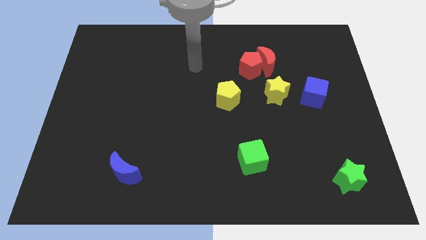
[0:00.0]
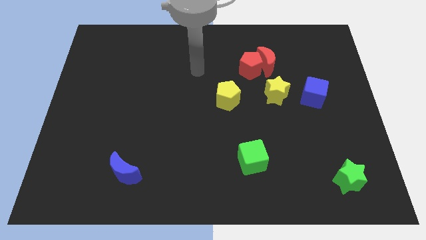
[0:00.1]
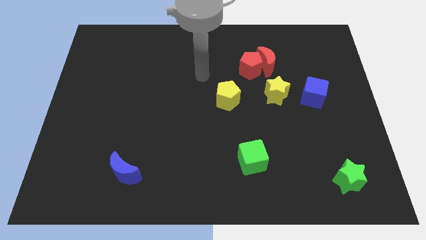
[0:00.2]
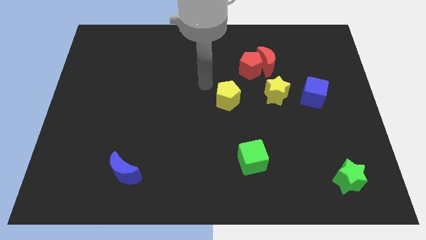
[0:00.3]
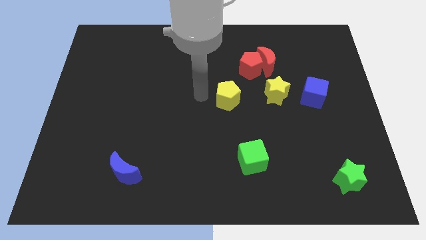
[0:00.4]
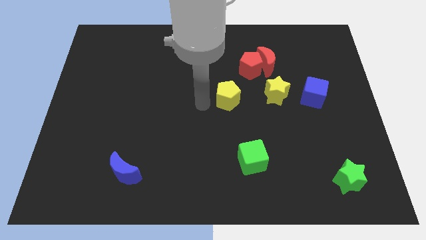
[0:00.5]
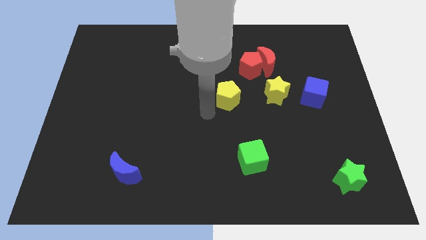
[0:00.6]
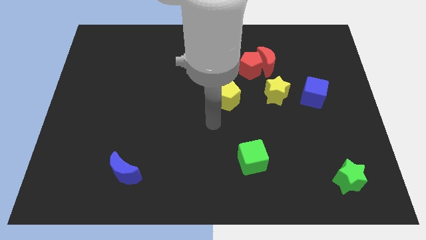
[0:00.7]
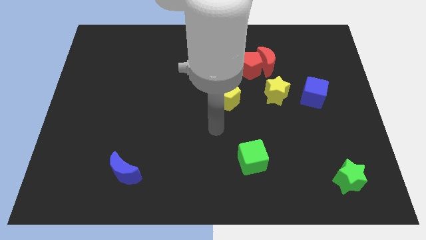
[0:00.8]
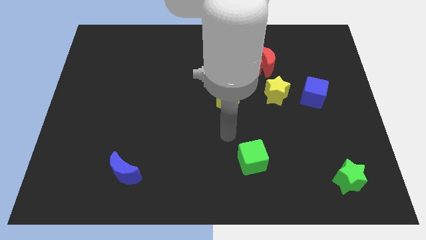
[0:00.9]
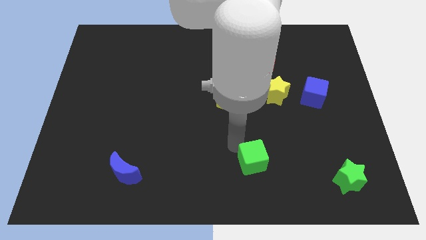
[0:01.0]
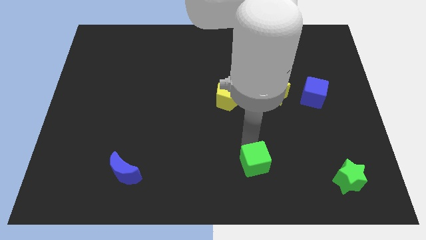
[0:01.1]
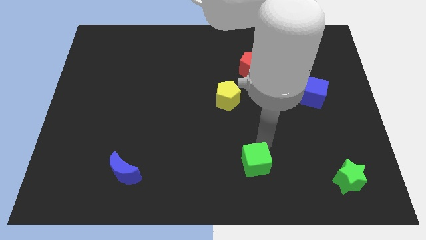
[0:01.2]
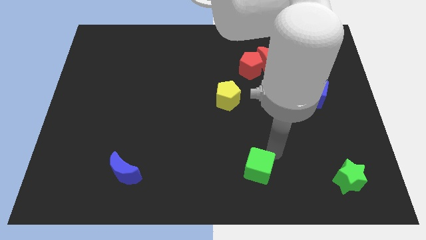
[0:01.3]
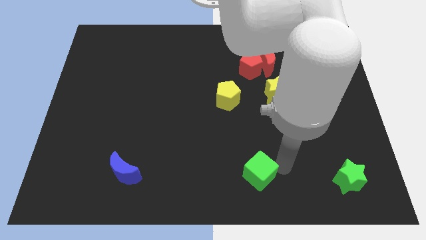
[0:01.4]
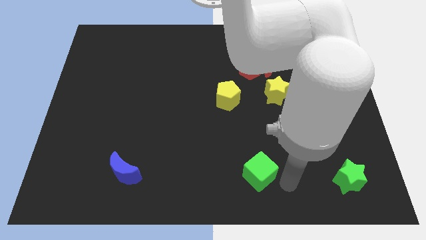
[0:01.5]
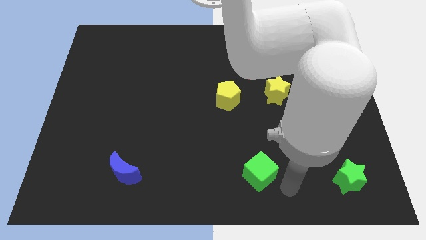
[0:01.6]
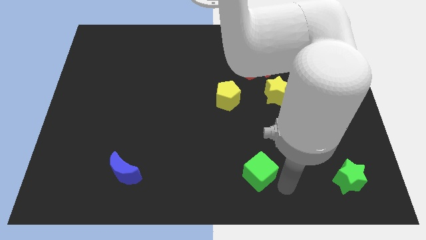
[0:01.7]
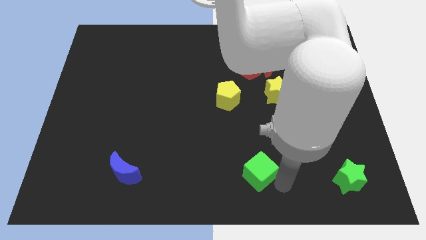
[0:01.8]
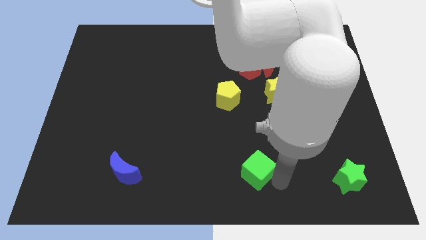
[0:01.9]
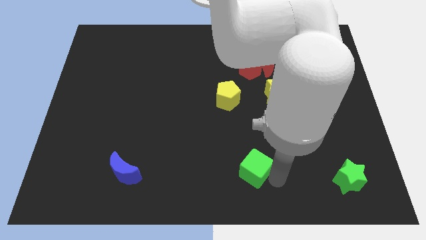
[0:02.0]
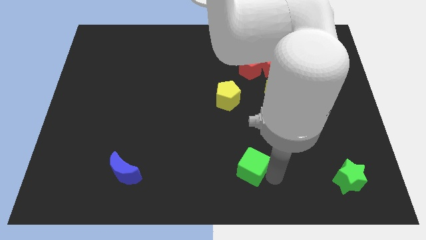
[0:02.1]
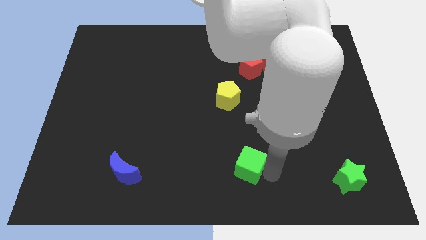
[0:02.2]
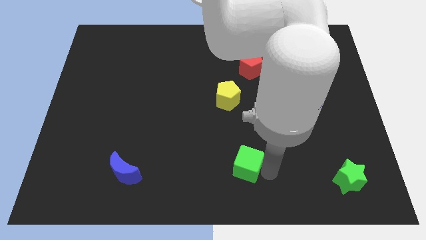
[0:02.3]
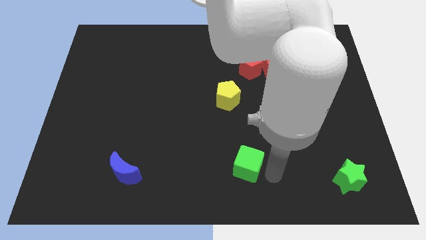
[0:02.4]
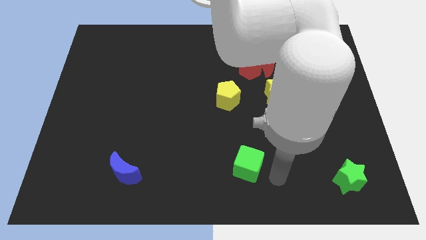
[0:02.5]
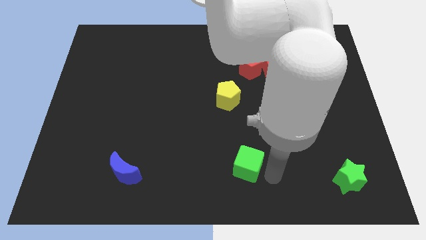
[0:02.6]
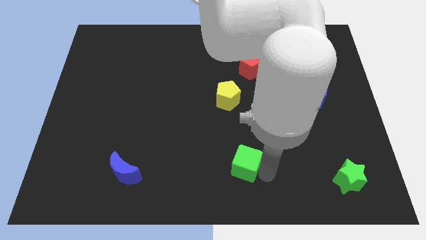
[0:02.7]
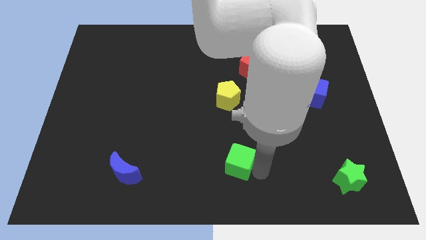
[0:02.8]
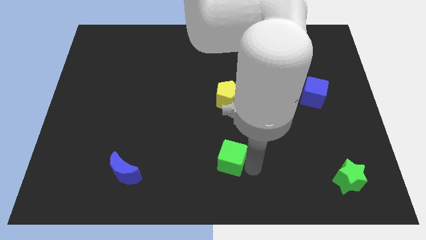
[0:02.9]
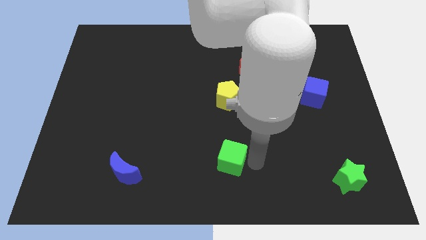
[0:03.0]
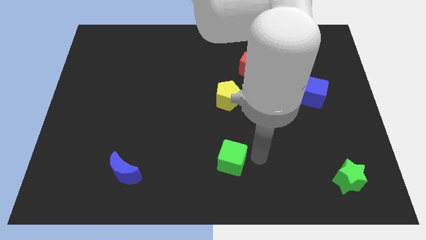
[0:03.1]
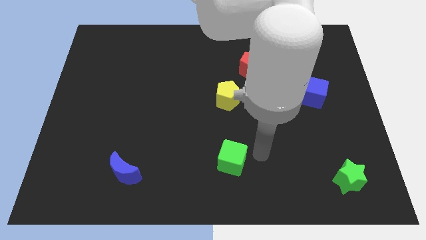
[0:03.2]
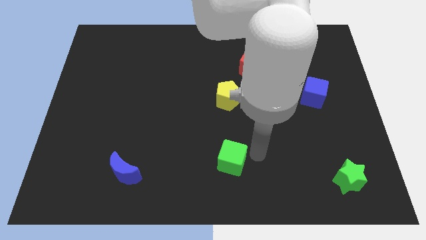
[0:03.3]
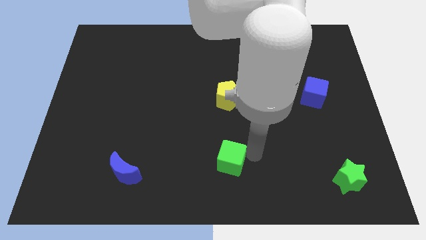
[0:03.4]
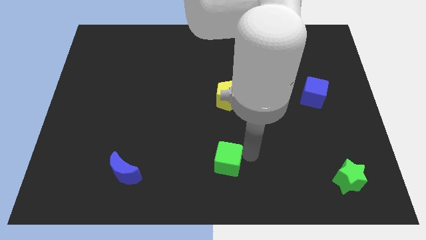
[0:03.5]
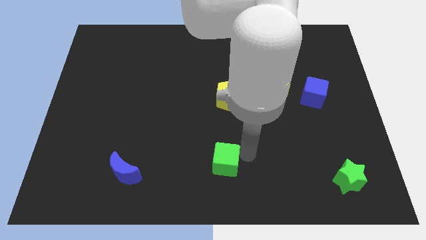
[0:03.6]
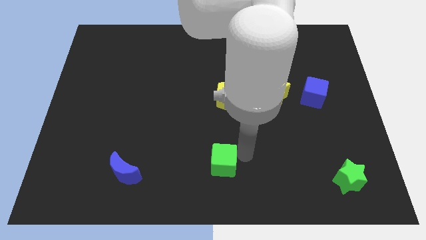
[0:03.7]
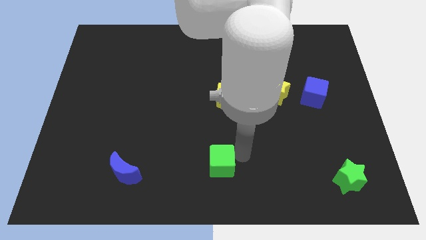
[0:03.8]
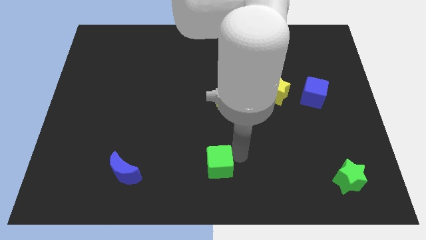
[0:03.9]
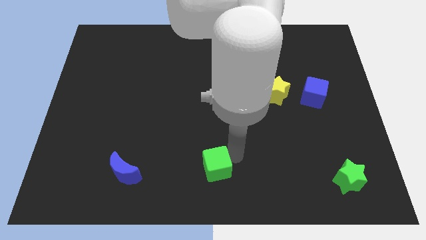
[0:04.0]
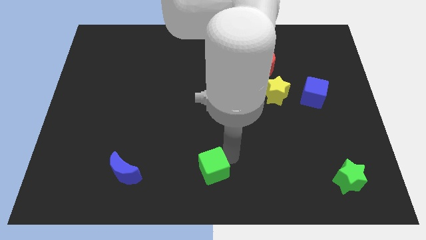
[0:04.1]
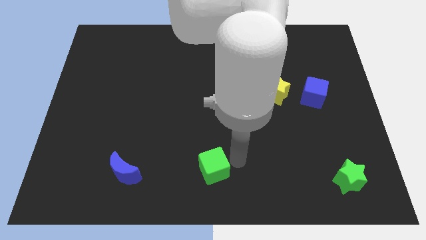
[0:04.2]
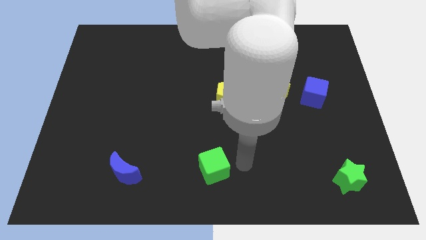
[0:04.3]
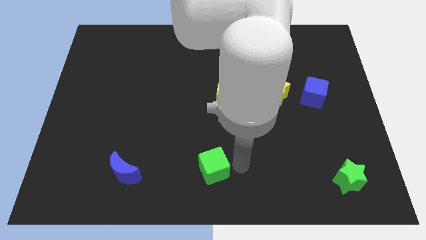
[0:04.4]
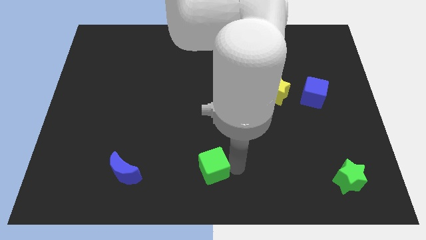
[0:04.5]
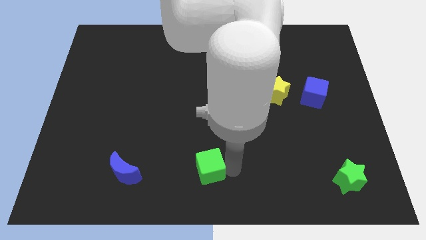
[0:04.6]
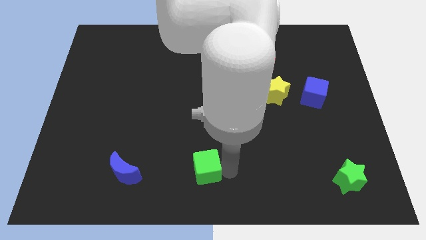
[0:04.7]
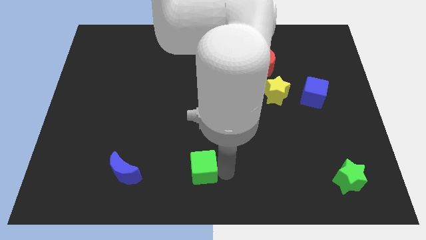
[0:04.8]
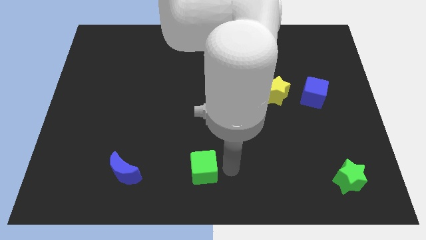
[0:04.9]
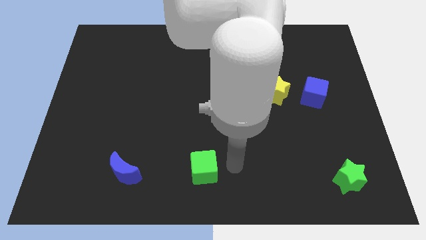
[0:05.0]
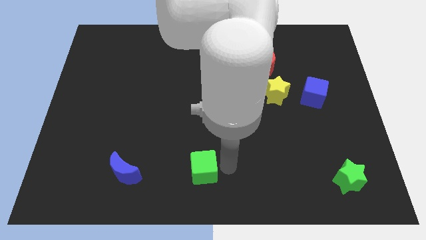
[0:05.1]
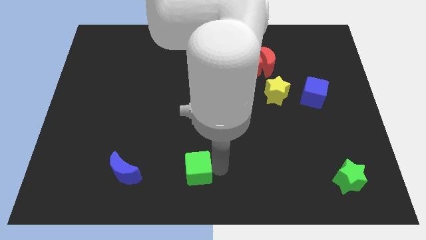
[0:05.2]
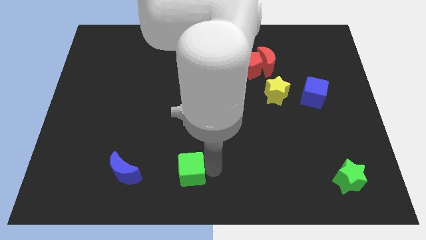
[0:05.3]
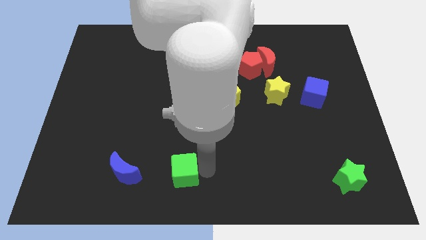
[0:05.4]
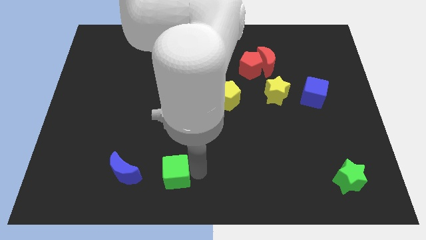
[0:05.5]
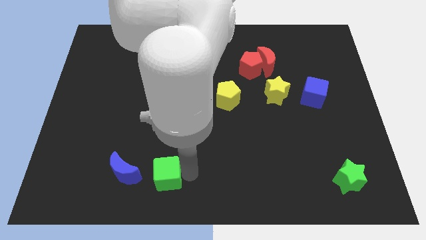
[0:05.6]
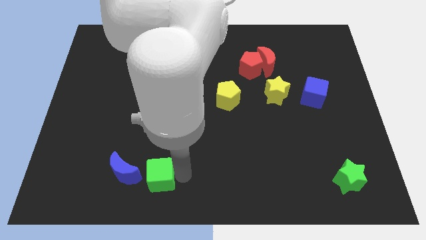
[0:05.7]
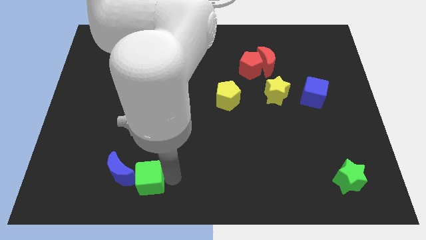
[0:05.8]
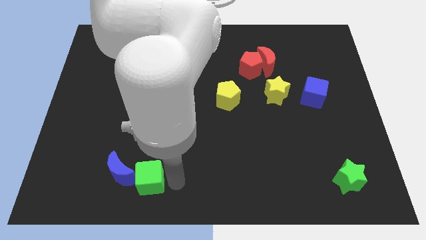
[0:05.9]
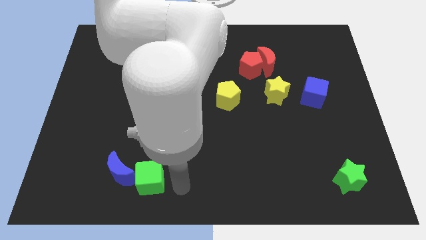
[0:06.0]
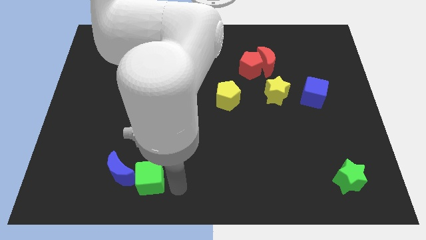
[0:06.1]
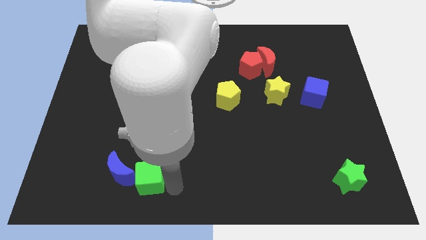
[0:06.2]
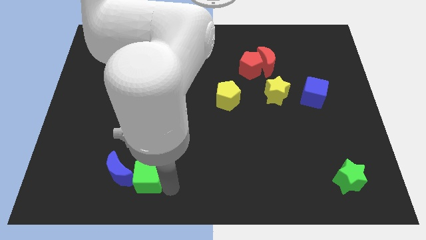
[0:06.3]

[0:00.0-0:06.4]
move the green cube close to the blue moon

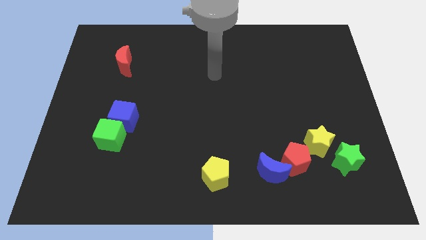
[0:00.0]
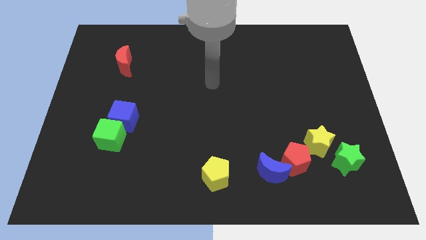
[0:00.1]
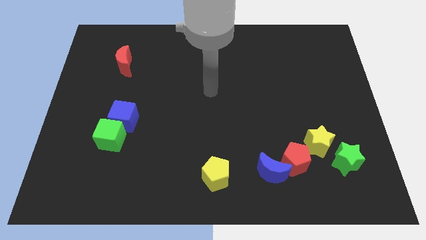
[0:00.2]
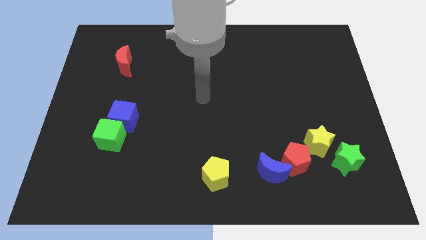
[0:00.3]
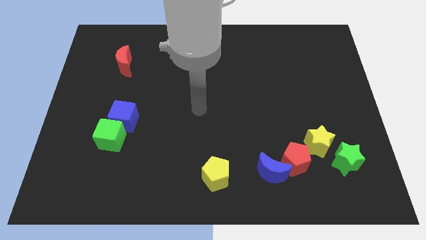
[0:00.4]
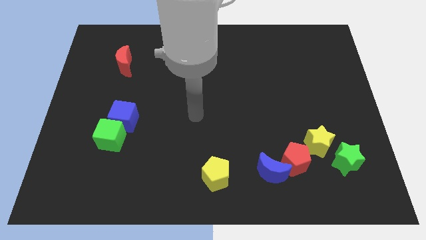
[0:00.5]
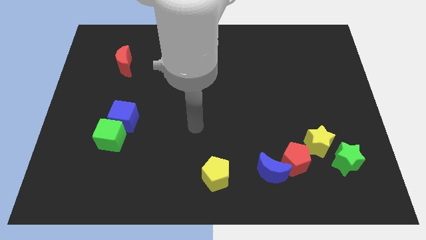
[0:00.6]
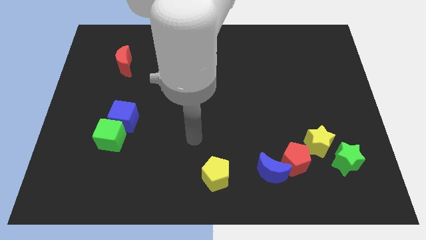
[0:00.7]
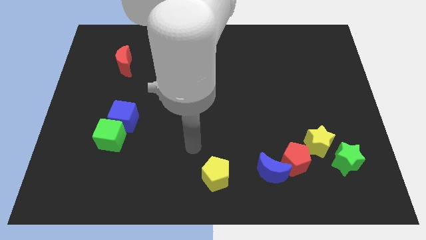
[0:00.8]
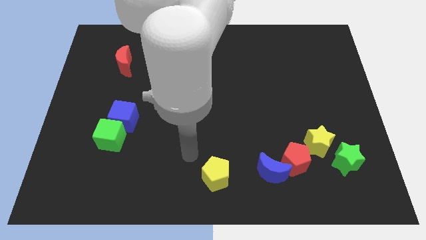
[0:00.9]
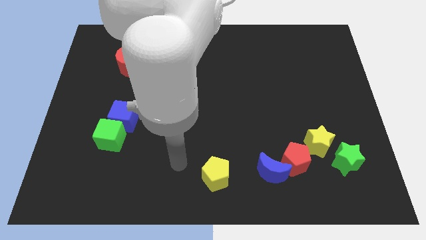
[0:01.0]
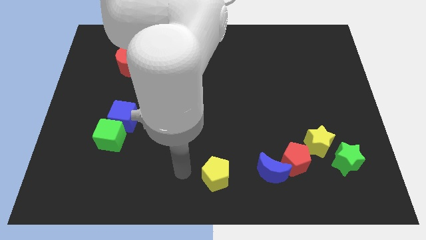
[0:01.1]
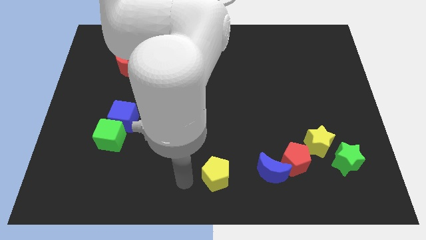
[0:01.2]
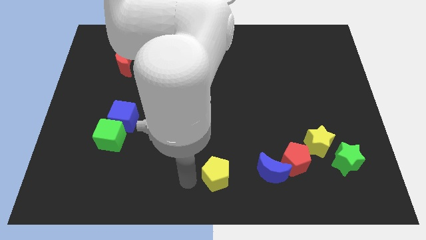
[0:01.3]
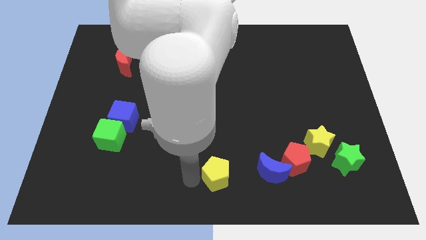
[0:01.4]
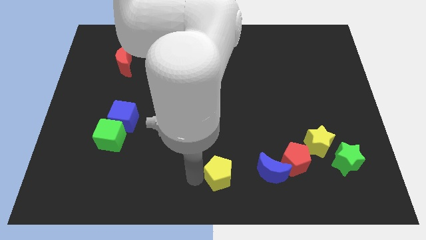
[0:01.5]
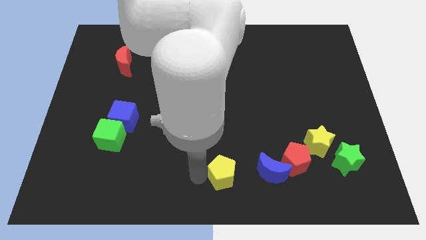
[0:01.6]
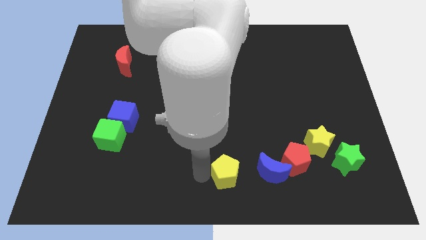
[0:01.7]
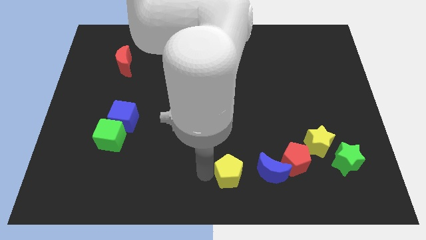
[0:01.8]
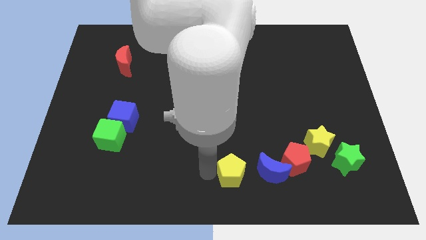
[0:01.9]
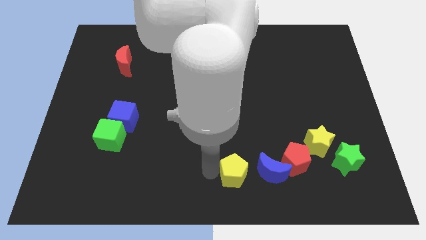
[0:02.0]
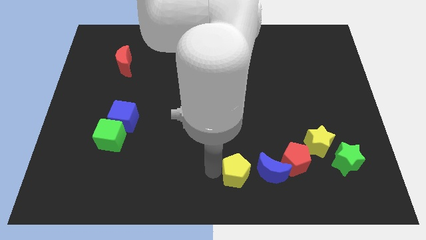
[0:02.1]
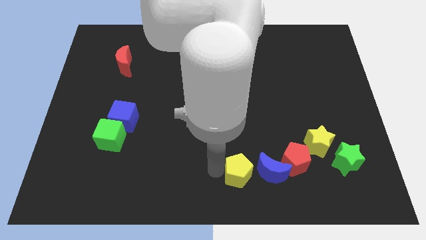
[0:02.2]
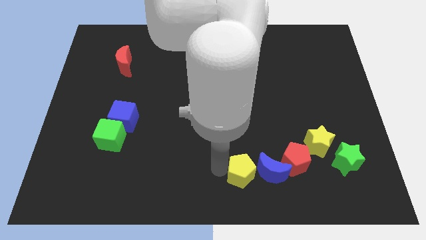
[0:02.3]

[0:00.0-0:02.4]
slide the yellow pentagon towards the blue moon
